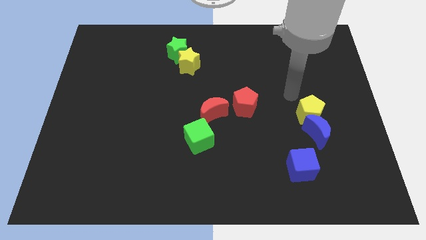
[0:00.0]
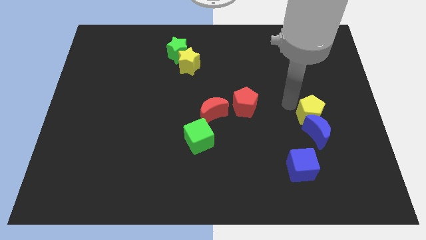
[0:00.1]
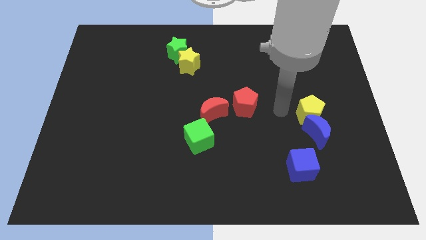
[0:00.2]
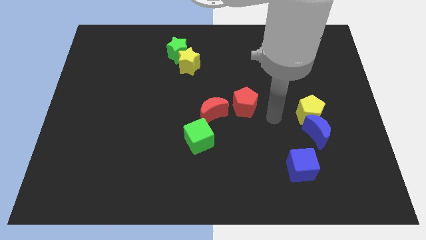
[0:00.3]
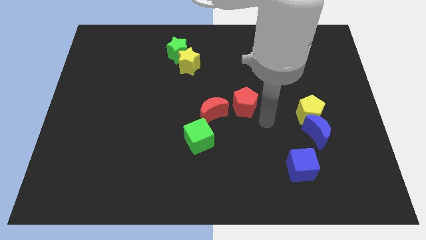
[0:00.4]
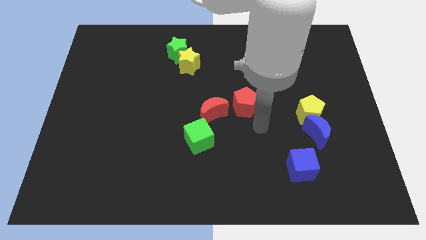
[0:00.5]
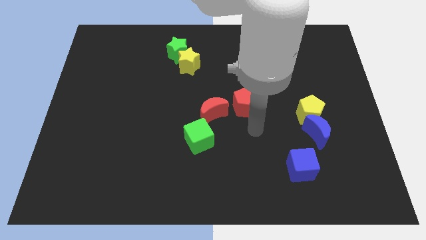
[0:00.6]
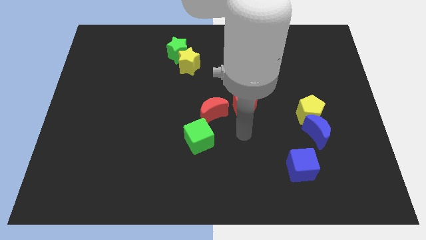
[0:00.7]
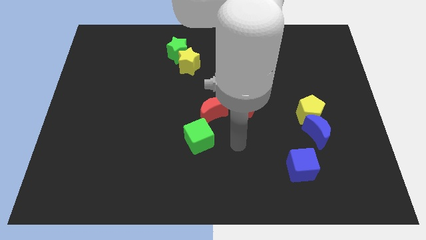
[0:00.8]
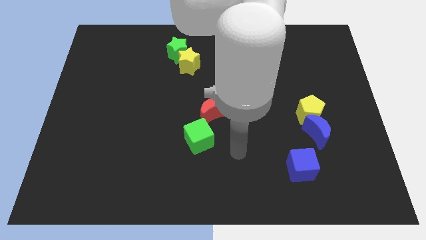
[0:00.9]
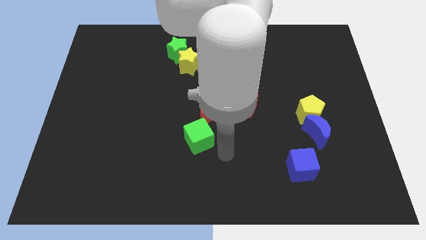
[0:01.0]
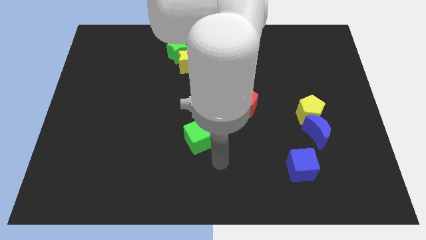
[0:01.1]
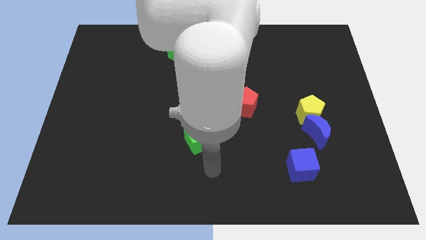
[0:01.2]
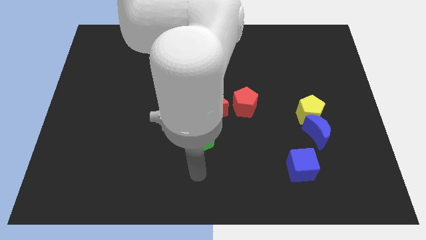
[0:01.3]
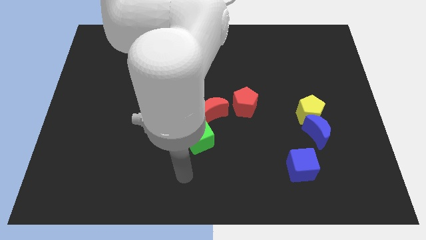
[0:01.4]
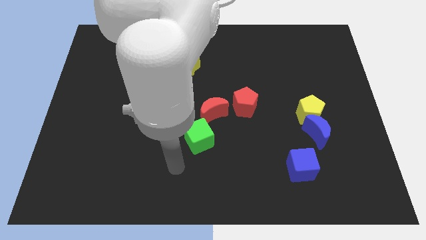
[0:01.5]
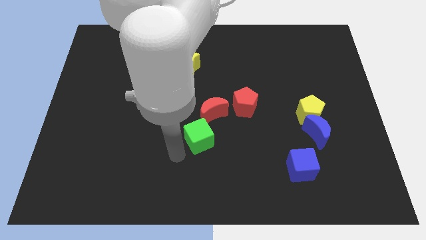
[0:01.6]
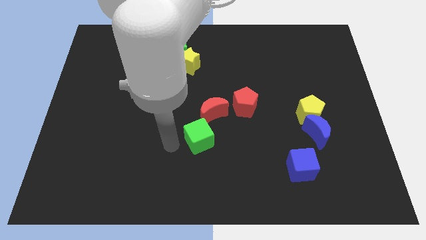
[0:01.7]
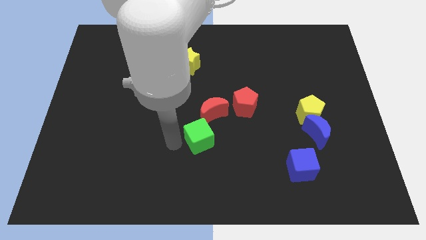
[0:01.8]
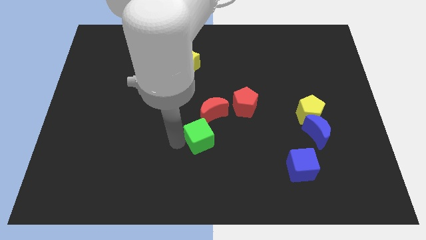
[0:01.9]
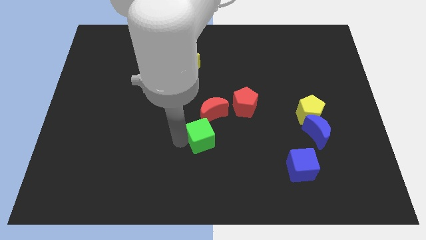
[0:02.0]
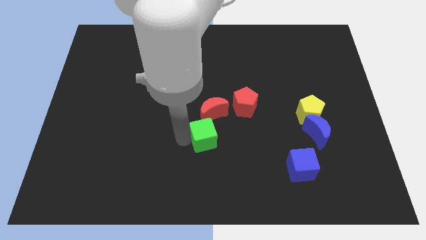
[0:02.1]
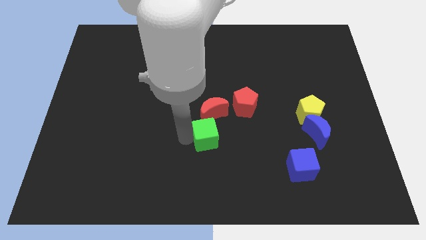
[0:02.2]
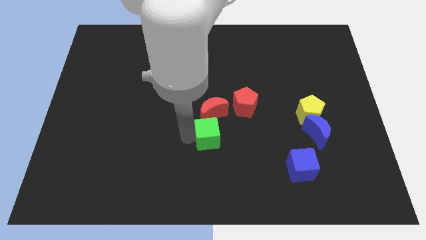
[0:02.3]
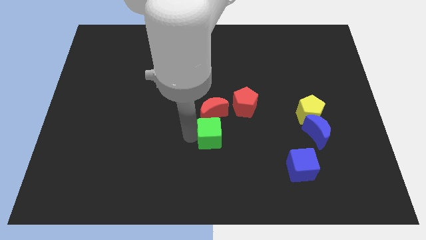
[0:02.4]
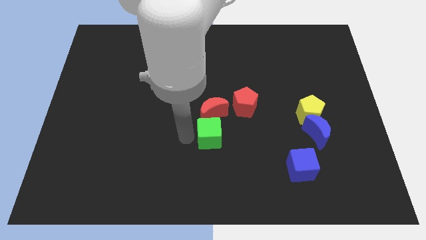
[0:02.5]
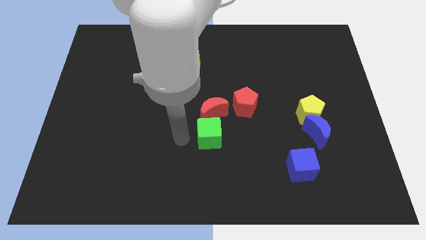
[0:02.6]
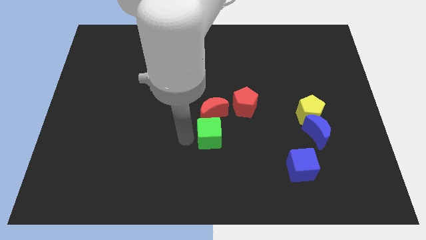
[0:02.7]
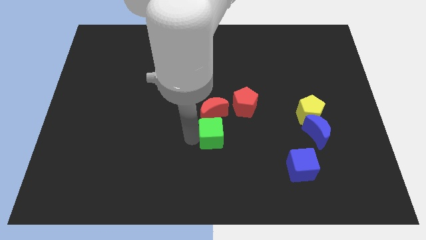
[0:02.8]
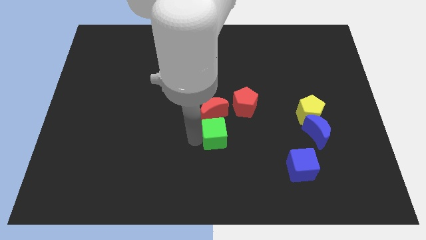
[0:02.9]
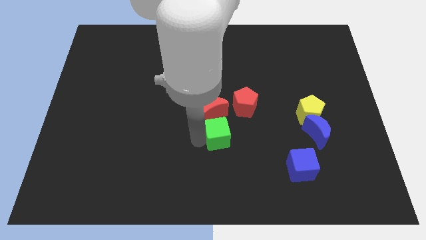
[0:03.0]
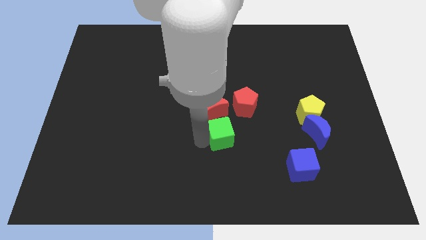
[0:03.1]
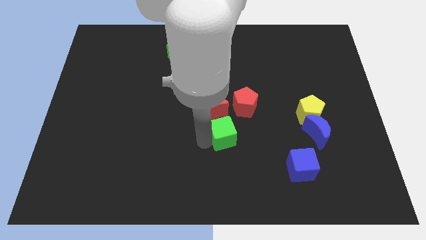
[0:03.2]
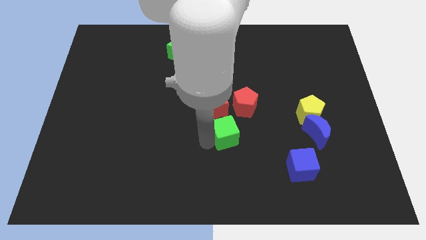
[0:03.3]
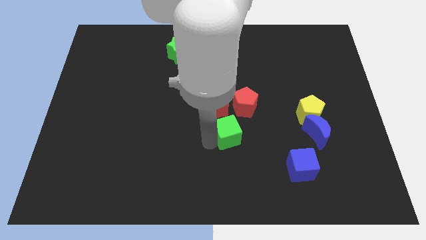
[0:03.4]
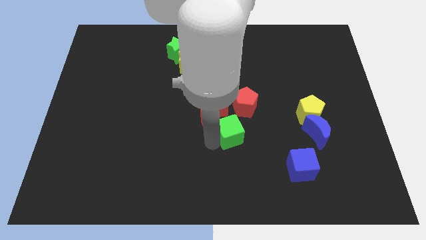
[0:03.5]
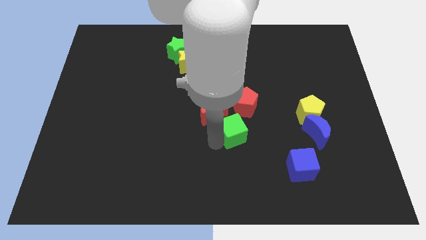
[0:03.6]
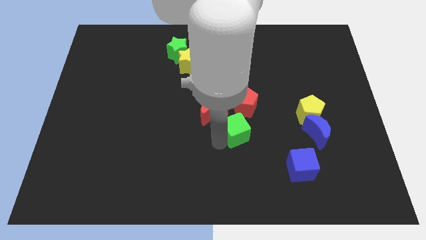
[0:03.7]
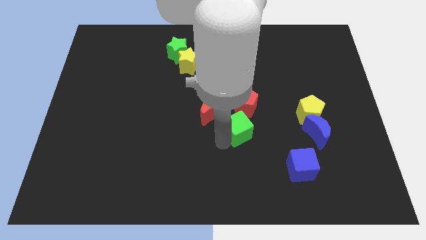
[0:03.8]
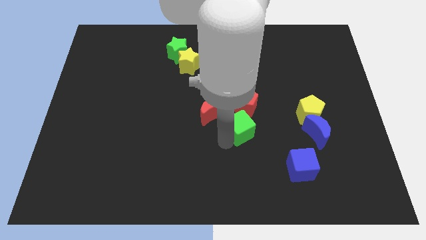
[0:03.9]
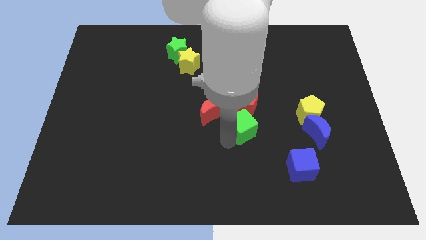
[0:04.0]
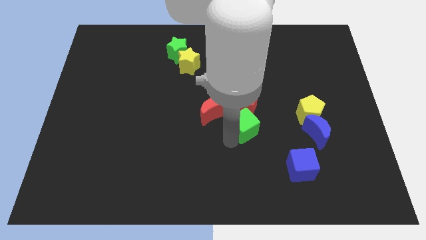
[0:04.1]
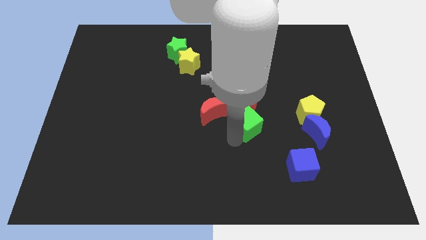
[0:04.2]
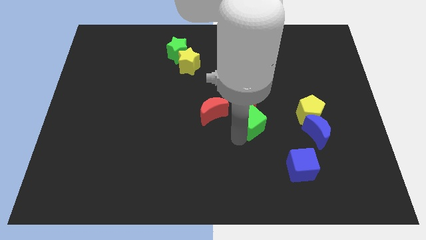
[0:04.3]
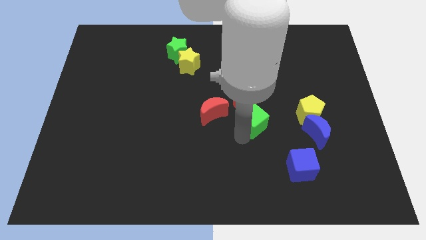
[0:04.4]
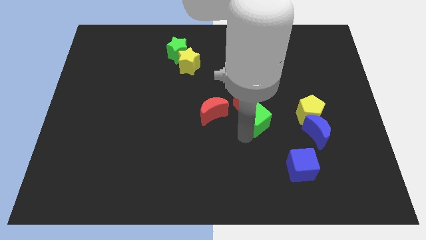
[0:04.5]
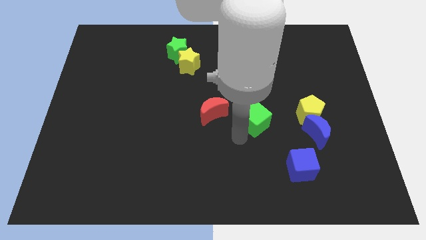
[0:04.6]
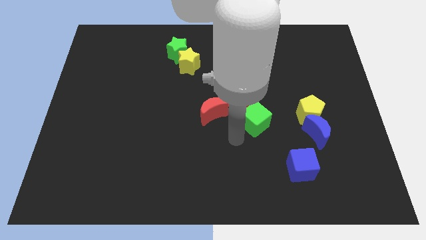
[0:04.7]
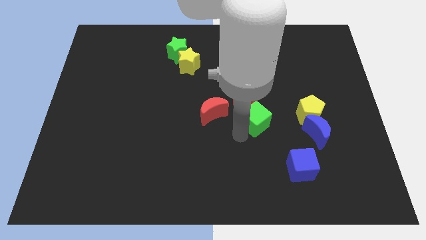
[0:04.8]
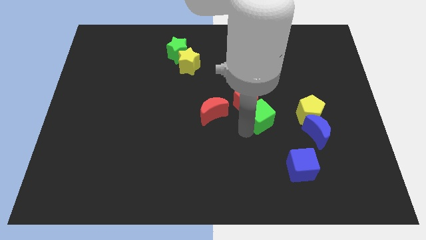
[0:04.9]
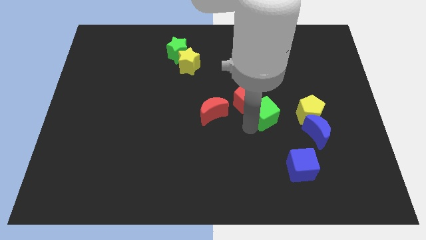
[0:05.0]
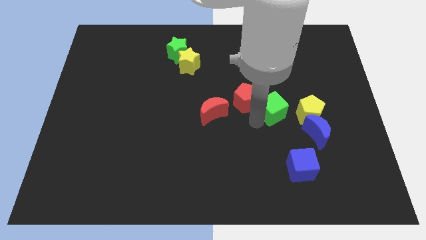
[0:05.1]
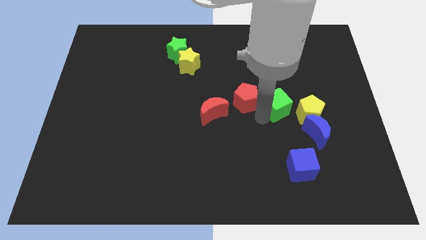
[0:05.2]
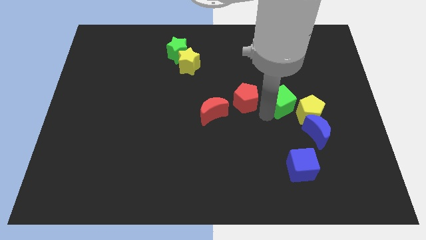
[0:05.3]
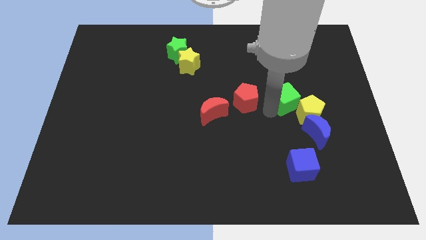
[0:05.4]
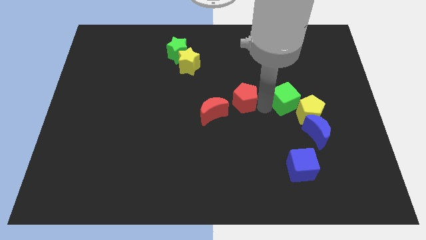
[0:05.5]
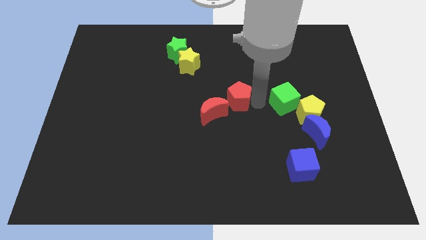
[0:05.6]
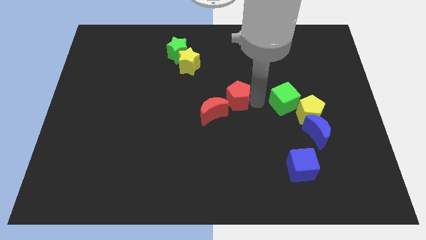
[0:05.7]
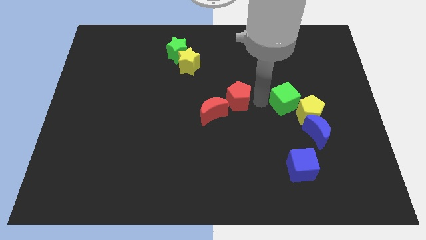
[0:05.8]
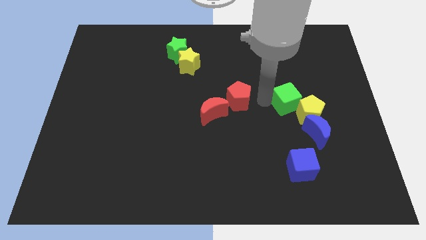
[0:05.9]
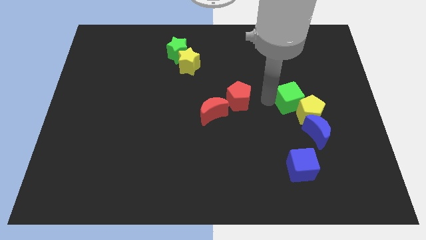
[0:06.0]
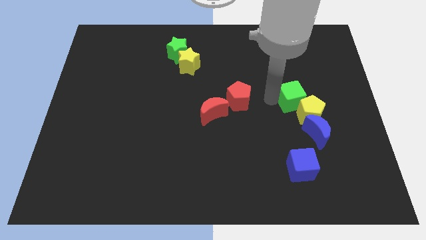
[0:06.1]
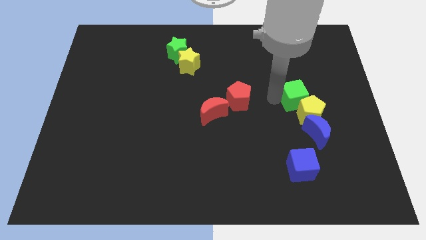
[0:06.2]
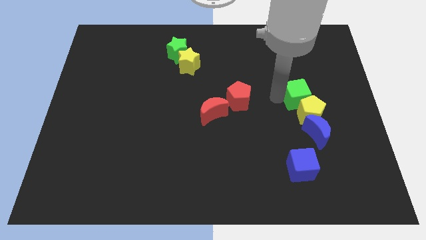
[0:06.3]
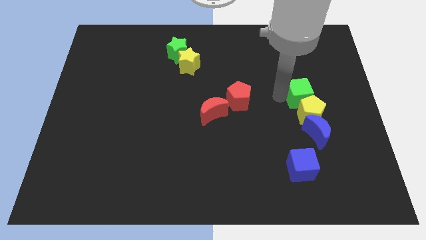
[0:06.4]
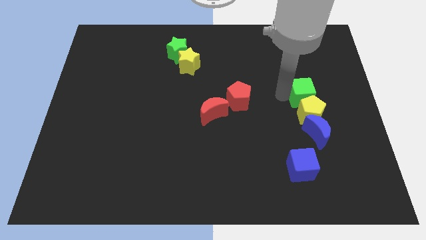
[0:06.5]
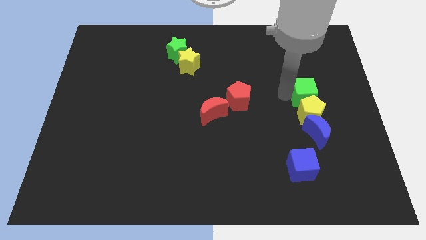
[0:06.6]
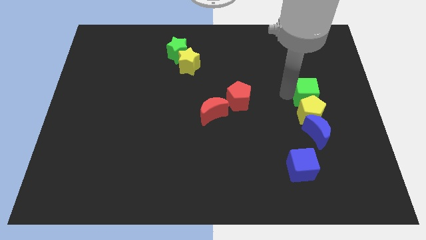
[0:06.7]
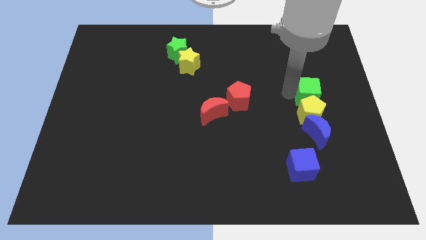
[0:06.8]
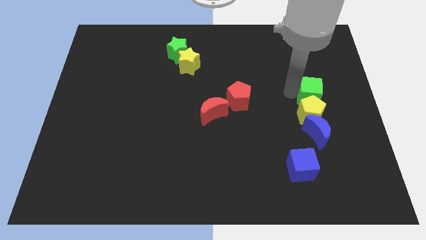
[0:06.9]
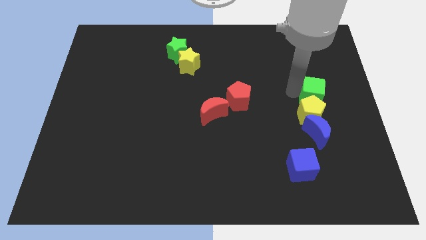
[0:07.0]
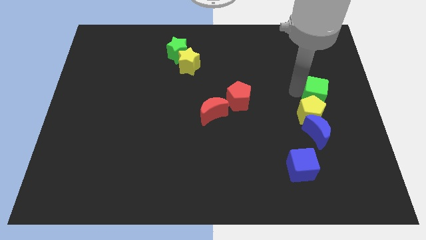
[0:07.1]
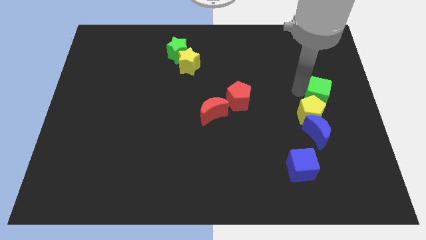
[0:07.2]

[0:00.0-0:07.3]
slide the green cube to the right side
